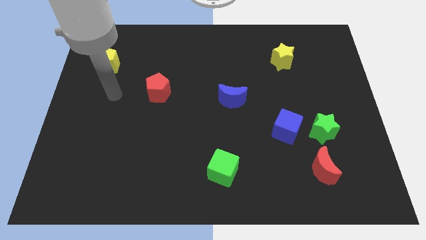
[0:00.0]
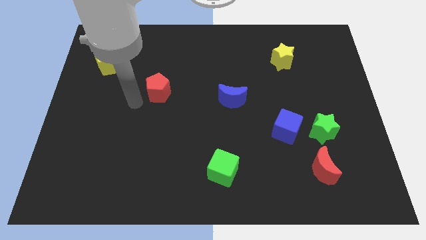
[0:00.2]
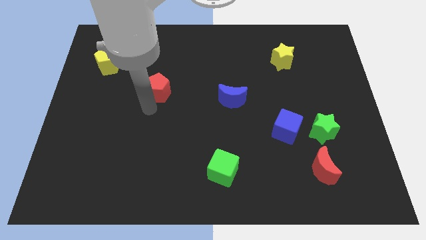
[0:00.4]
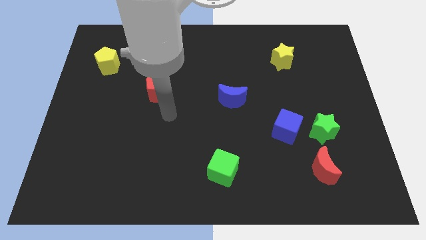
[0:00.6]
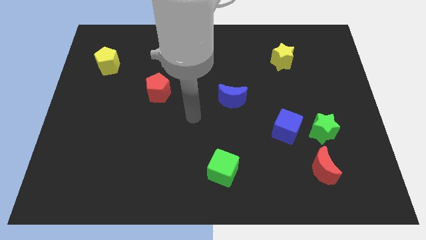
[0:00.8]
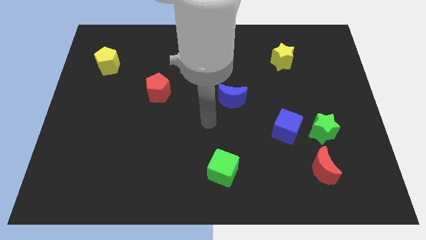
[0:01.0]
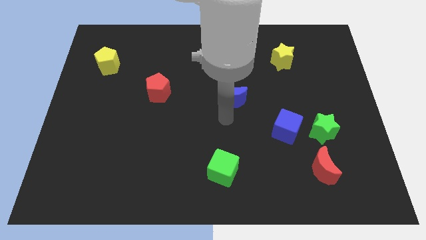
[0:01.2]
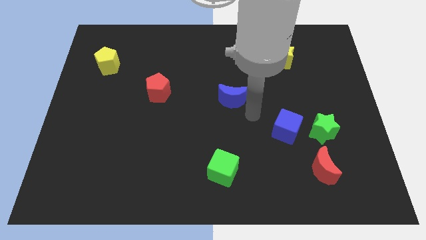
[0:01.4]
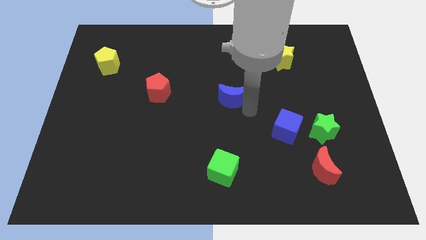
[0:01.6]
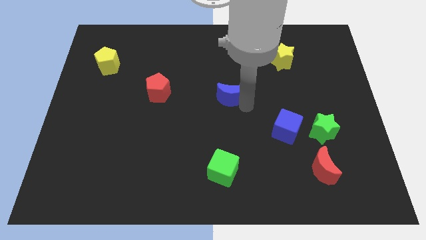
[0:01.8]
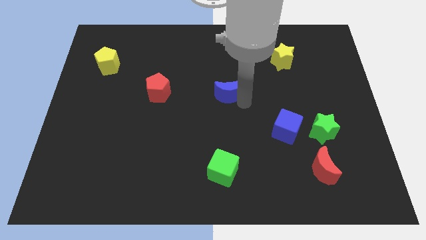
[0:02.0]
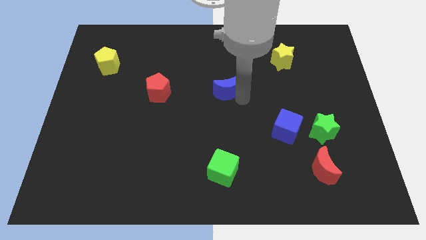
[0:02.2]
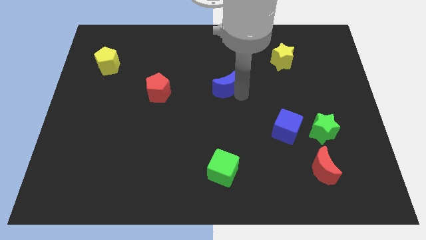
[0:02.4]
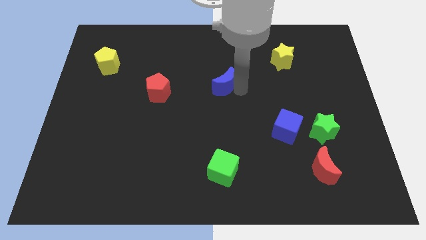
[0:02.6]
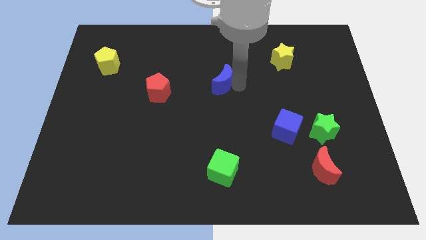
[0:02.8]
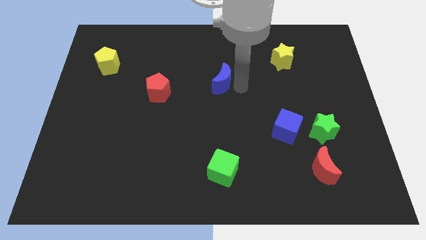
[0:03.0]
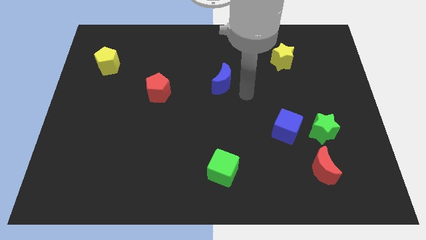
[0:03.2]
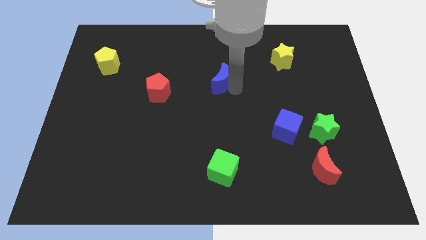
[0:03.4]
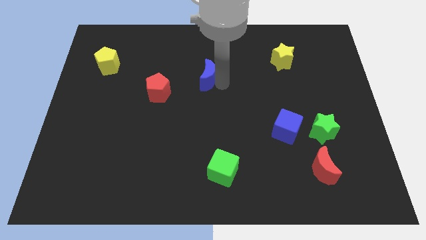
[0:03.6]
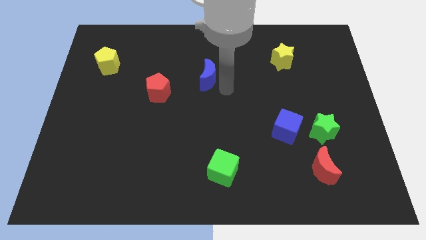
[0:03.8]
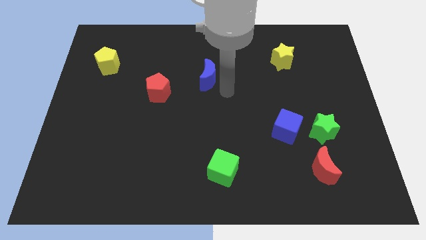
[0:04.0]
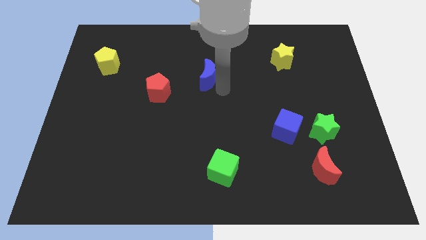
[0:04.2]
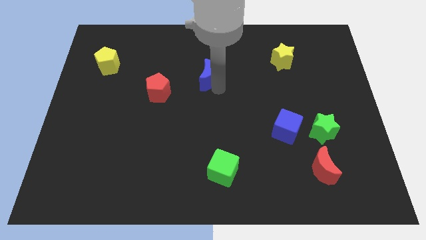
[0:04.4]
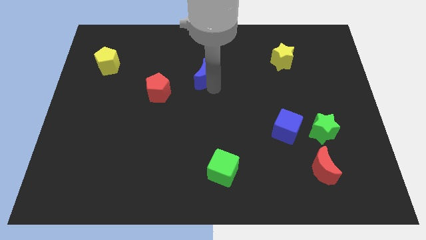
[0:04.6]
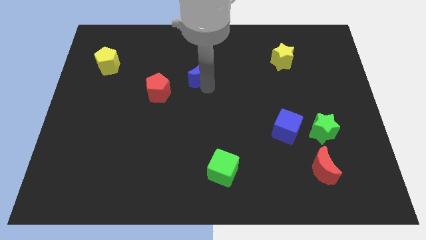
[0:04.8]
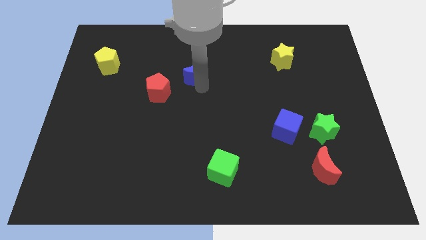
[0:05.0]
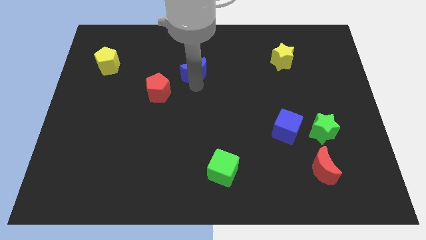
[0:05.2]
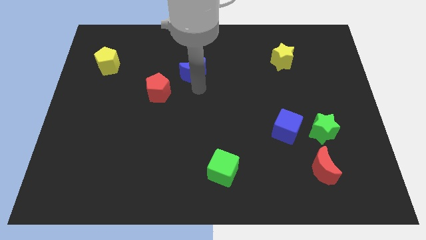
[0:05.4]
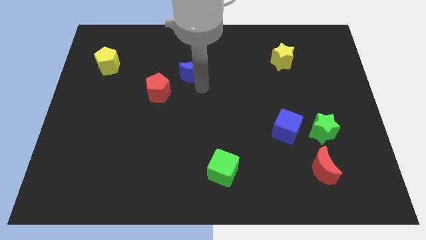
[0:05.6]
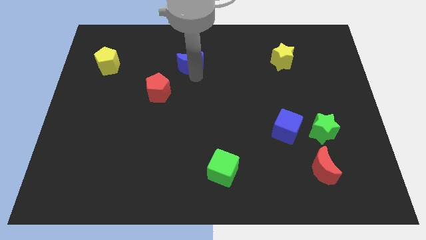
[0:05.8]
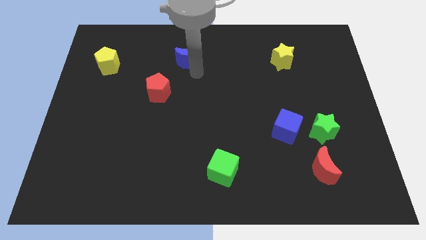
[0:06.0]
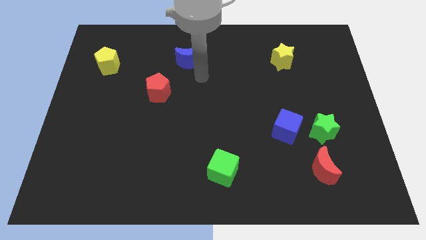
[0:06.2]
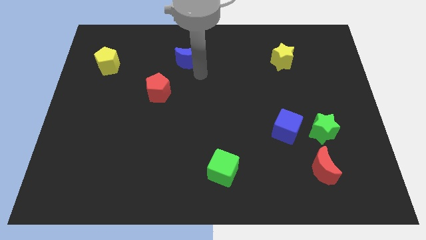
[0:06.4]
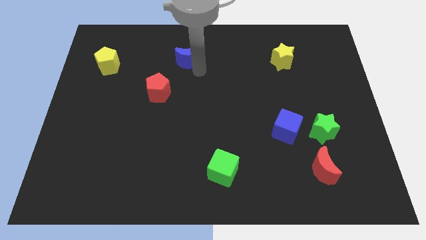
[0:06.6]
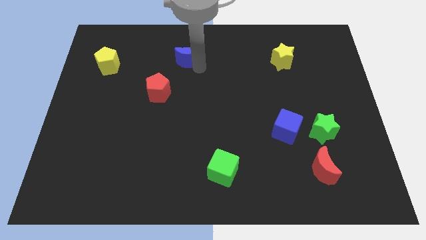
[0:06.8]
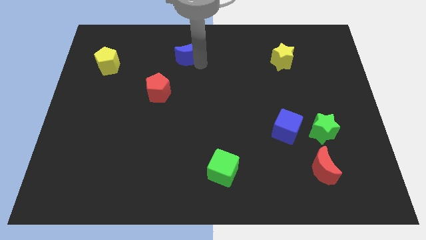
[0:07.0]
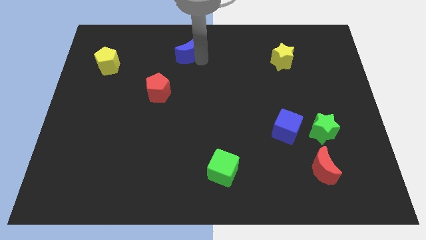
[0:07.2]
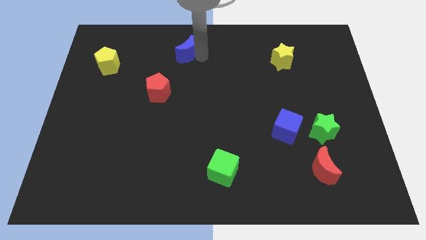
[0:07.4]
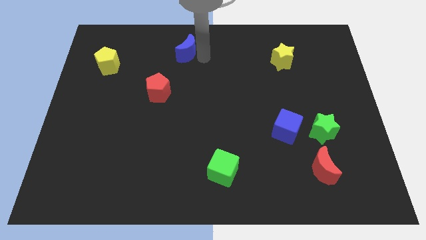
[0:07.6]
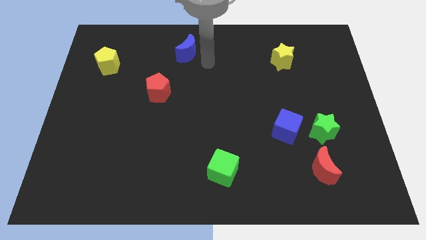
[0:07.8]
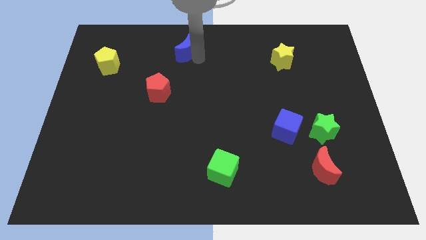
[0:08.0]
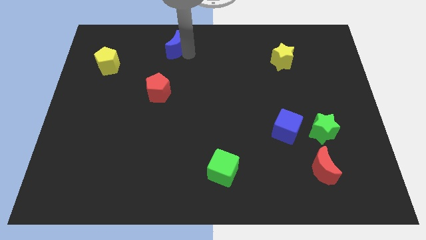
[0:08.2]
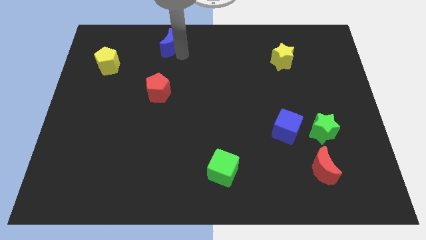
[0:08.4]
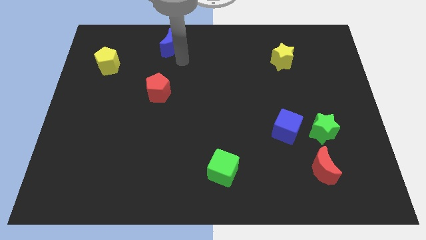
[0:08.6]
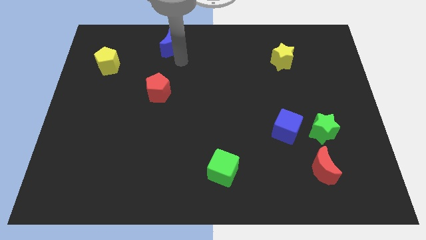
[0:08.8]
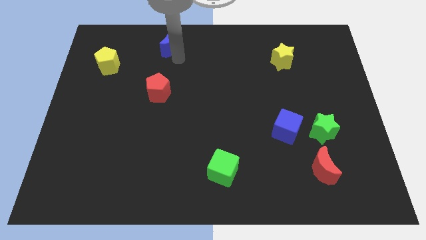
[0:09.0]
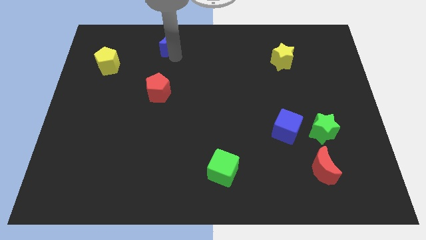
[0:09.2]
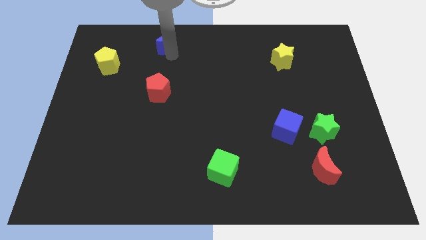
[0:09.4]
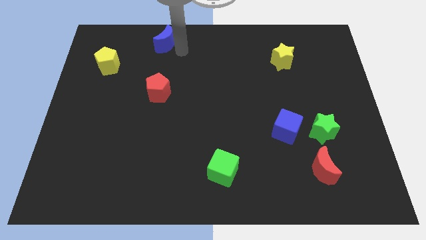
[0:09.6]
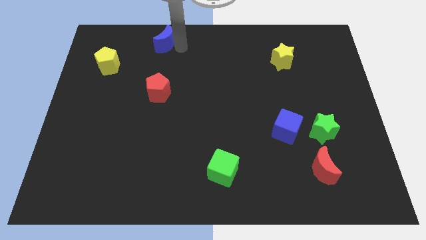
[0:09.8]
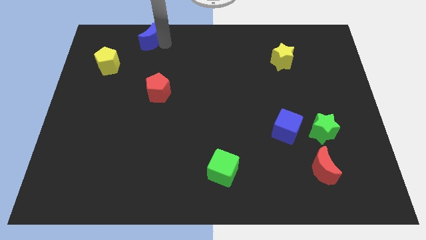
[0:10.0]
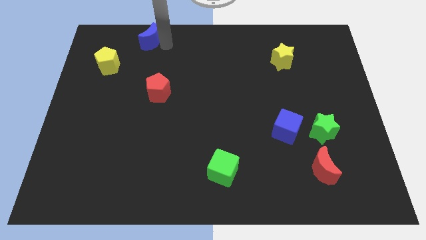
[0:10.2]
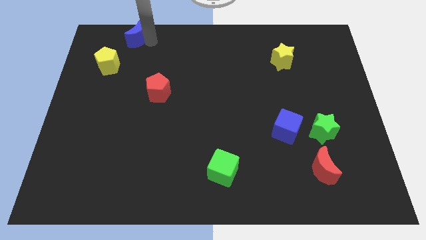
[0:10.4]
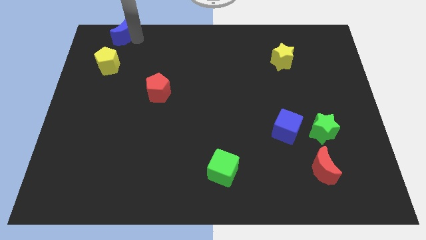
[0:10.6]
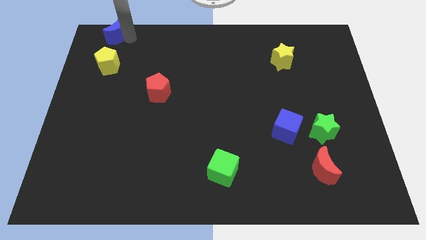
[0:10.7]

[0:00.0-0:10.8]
put the blue moon to the upper left corner
